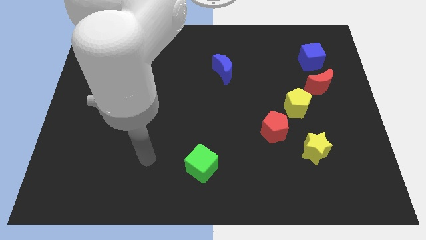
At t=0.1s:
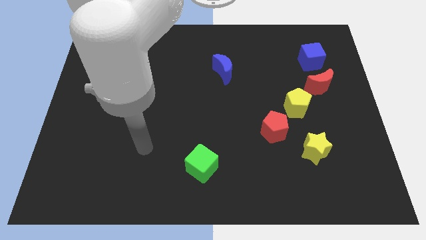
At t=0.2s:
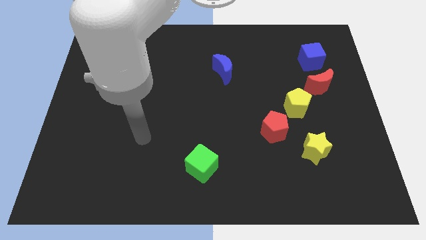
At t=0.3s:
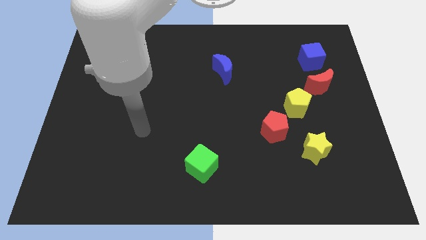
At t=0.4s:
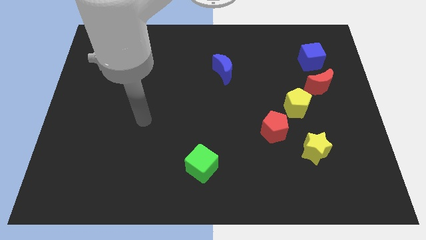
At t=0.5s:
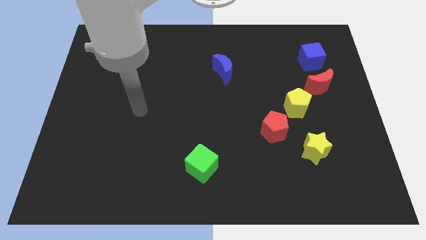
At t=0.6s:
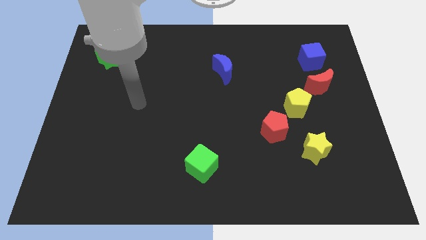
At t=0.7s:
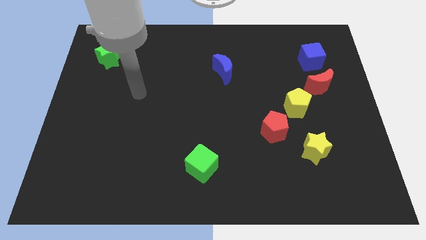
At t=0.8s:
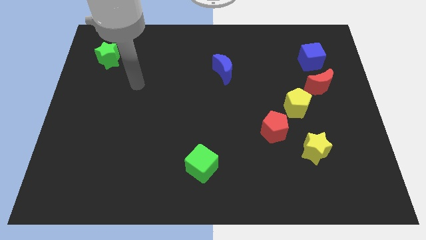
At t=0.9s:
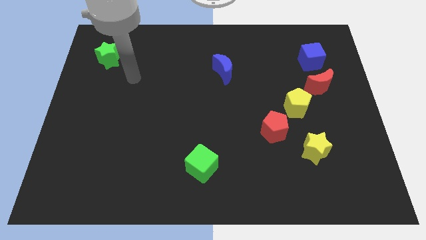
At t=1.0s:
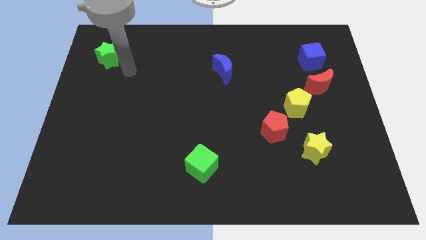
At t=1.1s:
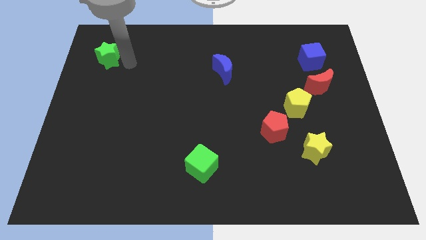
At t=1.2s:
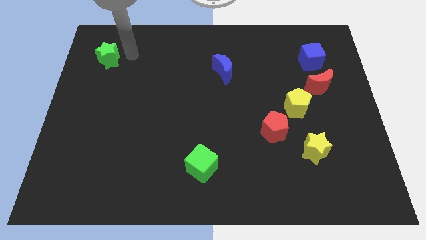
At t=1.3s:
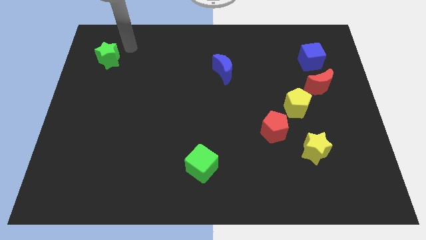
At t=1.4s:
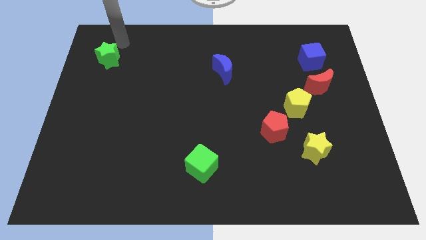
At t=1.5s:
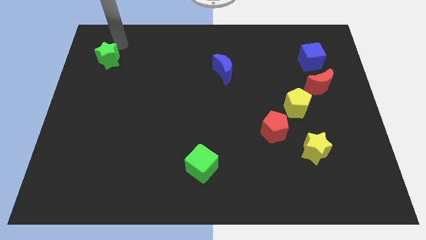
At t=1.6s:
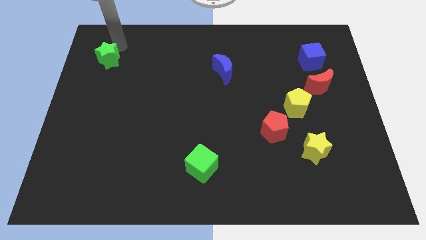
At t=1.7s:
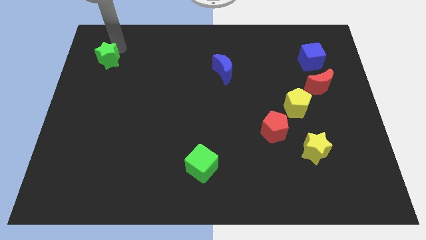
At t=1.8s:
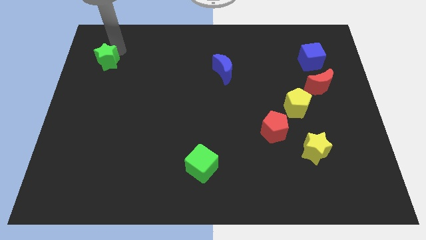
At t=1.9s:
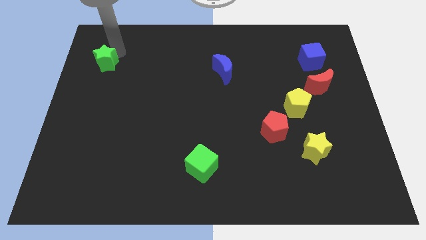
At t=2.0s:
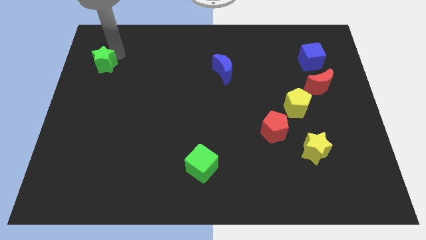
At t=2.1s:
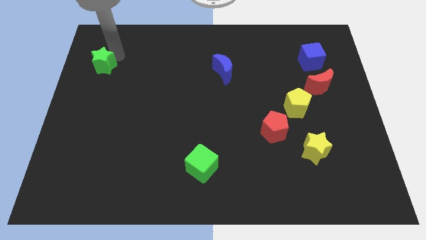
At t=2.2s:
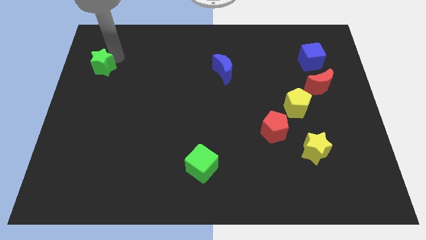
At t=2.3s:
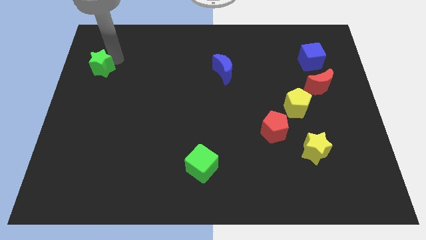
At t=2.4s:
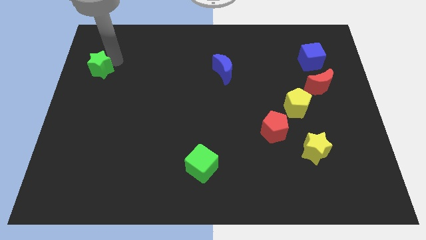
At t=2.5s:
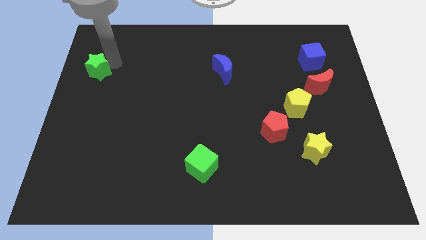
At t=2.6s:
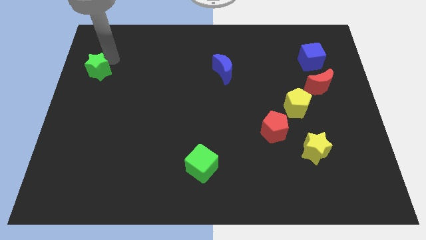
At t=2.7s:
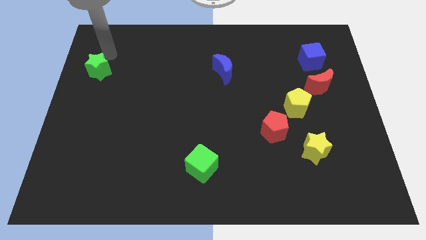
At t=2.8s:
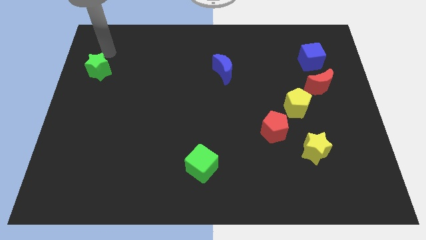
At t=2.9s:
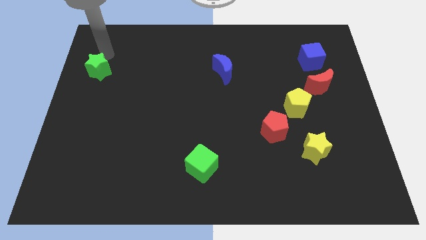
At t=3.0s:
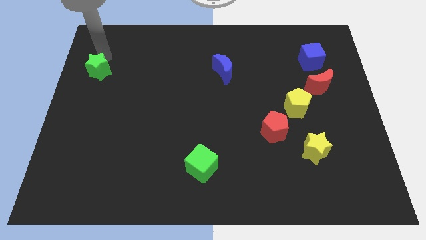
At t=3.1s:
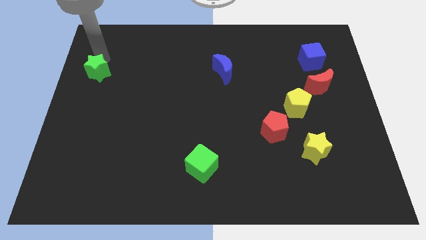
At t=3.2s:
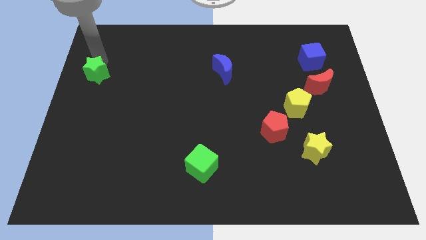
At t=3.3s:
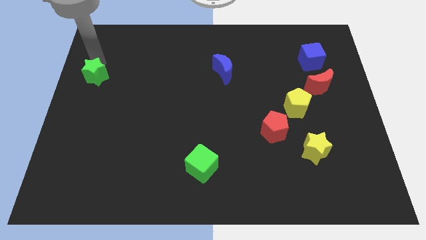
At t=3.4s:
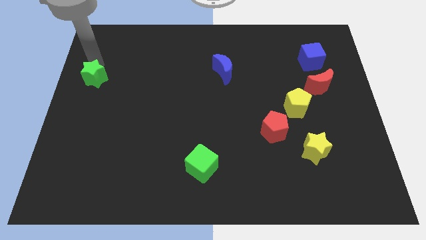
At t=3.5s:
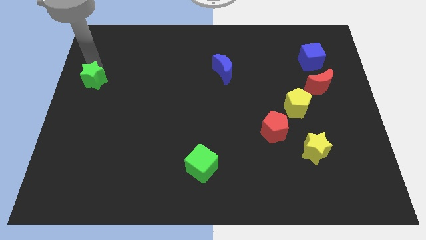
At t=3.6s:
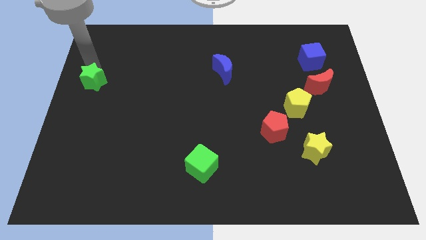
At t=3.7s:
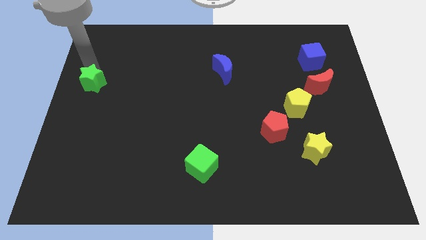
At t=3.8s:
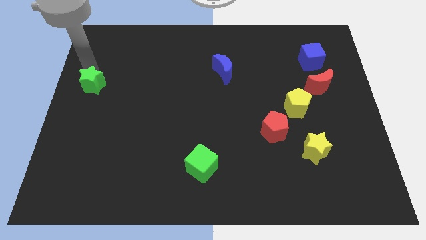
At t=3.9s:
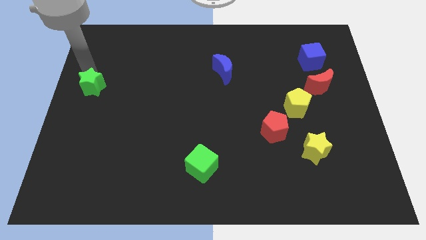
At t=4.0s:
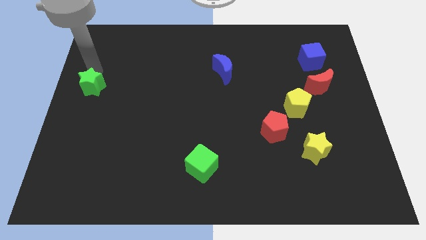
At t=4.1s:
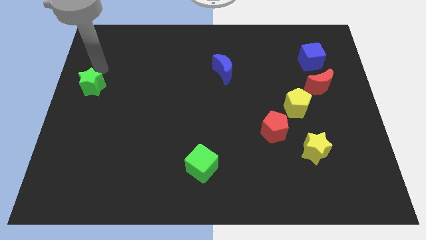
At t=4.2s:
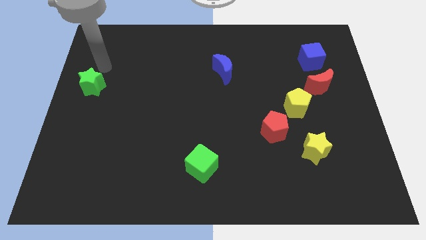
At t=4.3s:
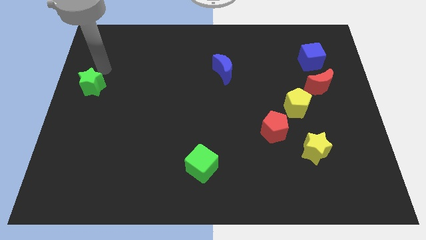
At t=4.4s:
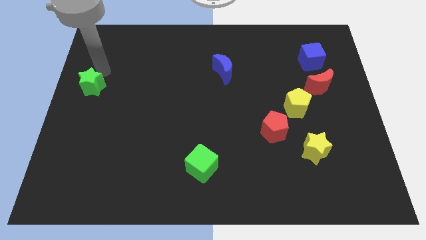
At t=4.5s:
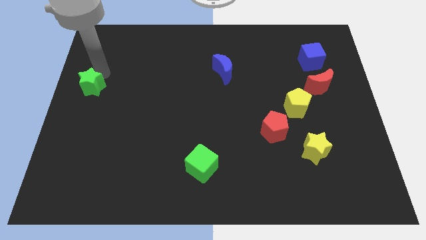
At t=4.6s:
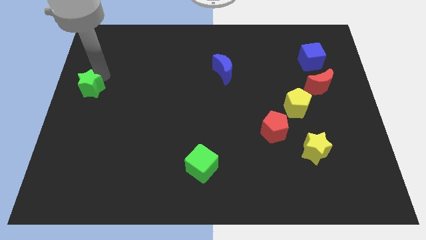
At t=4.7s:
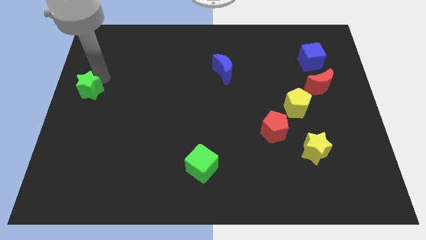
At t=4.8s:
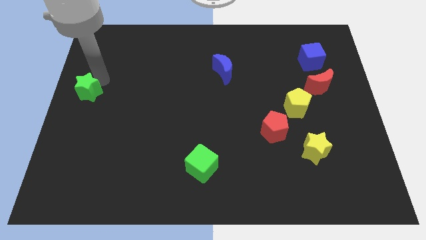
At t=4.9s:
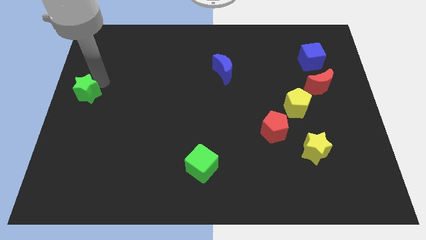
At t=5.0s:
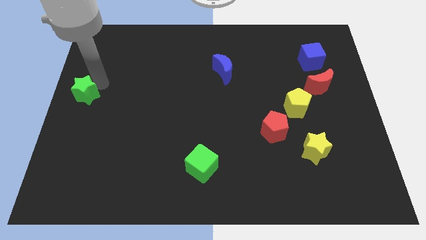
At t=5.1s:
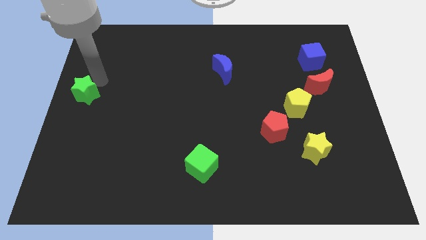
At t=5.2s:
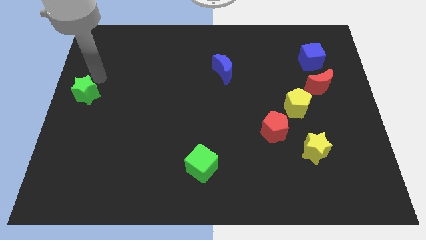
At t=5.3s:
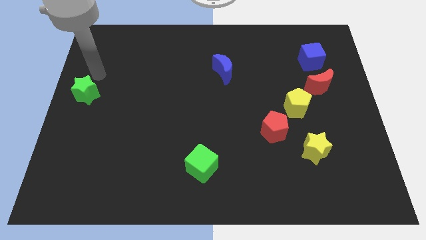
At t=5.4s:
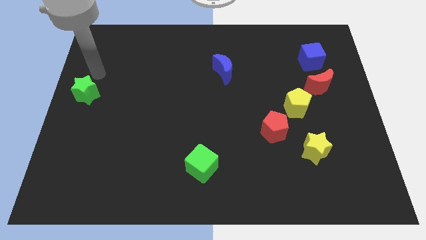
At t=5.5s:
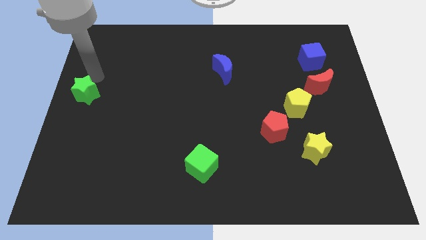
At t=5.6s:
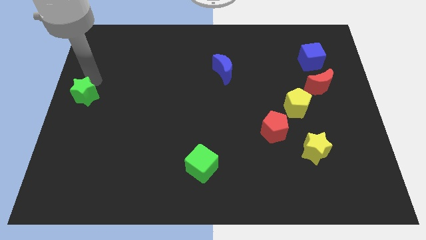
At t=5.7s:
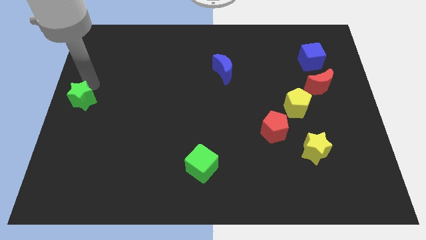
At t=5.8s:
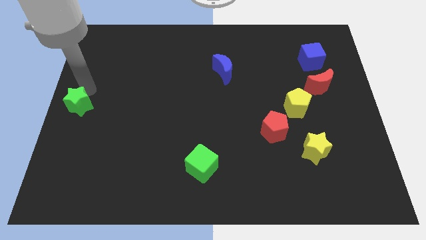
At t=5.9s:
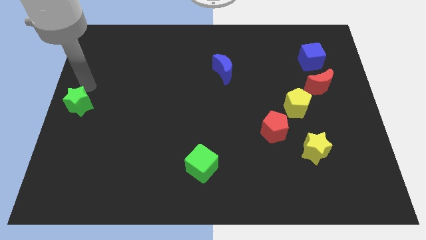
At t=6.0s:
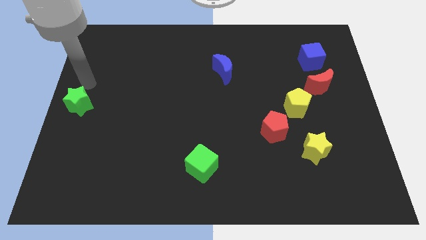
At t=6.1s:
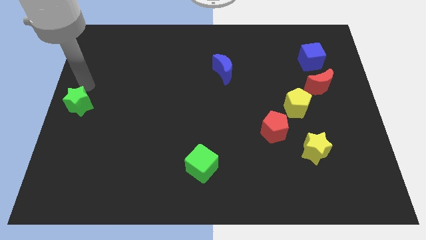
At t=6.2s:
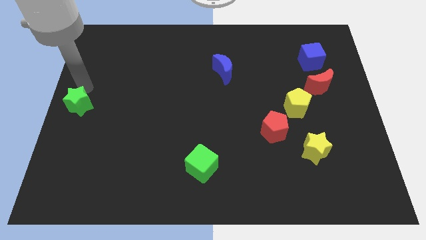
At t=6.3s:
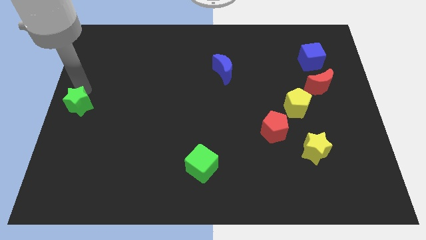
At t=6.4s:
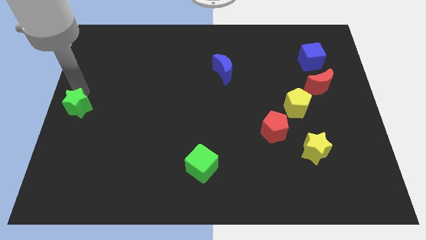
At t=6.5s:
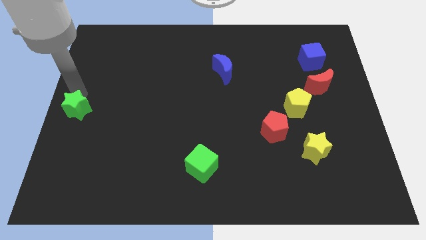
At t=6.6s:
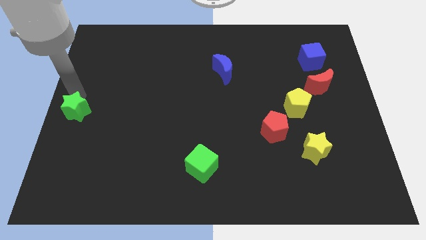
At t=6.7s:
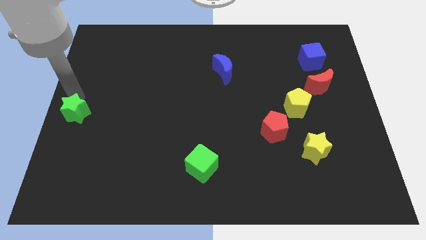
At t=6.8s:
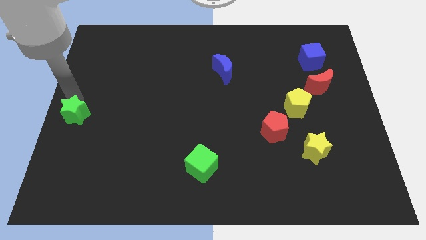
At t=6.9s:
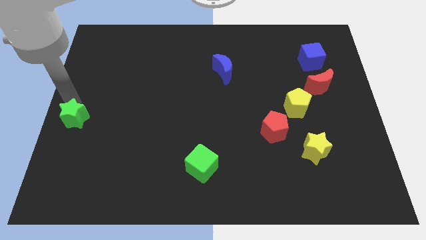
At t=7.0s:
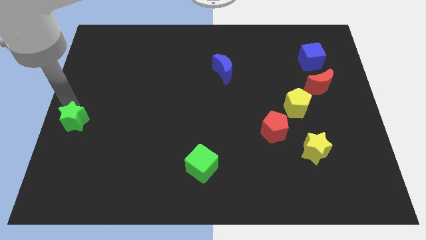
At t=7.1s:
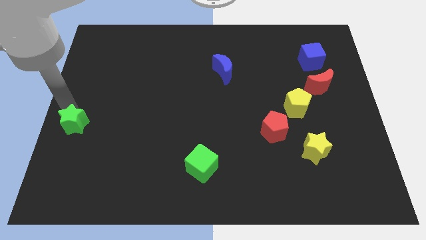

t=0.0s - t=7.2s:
push the green star down

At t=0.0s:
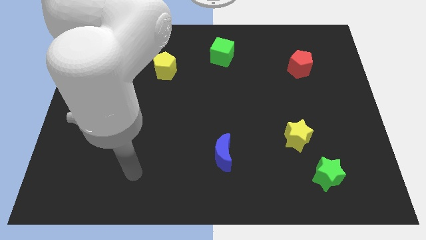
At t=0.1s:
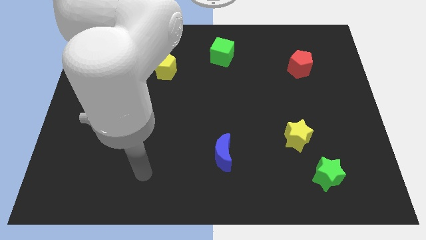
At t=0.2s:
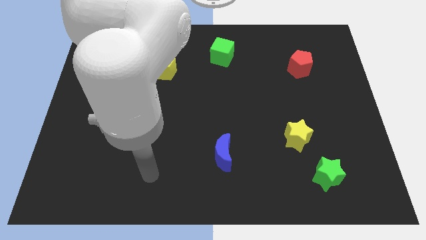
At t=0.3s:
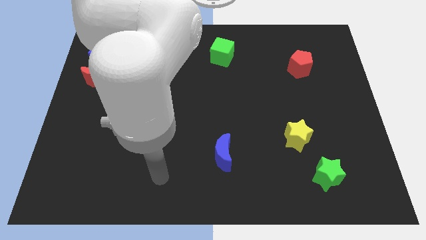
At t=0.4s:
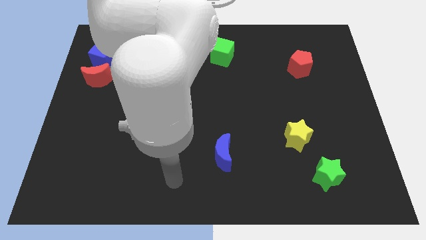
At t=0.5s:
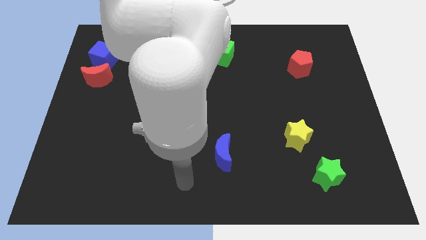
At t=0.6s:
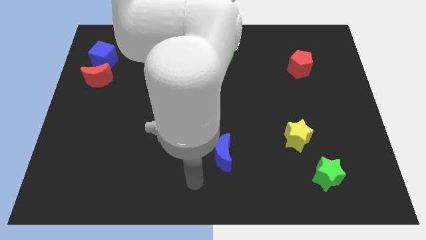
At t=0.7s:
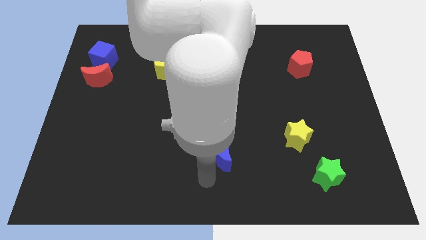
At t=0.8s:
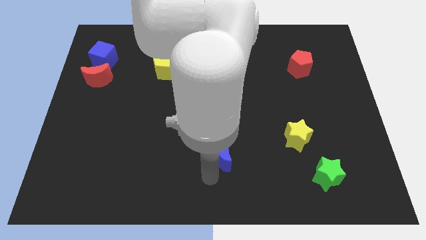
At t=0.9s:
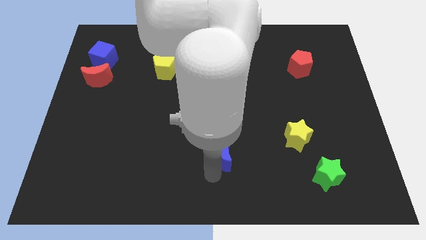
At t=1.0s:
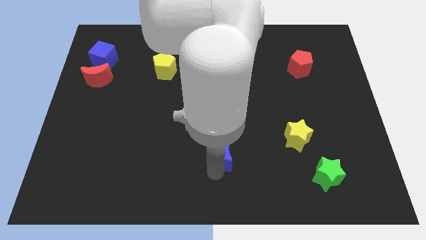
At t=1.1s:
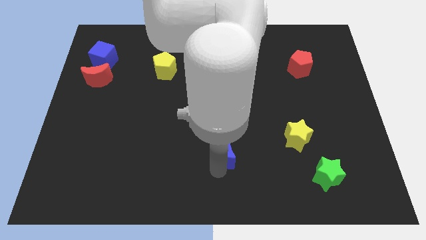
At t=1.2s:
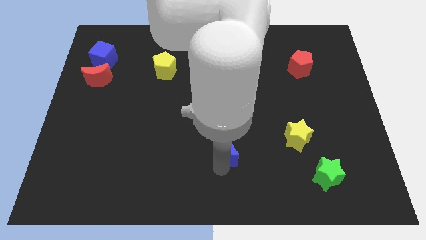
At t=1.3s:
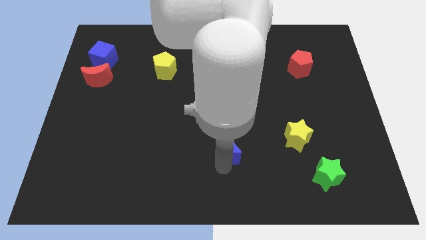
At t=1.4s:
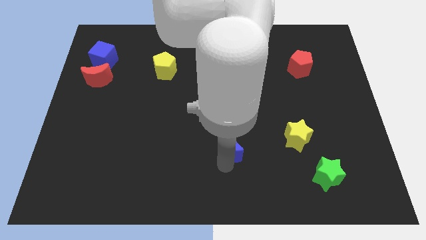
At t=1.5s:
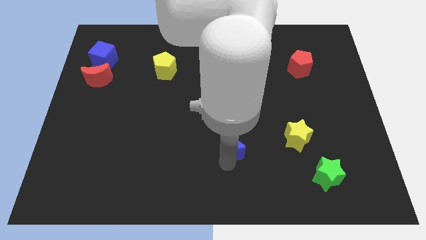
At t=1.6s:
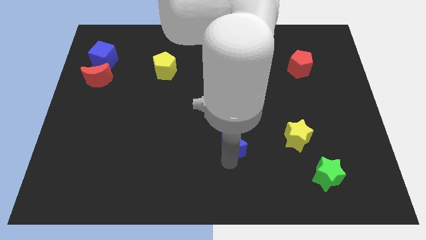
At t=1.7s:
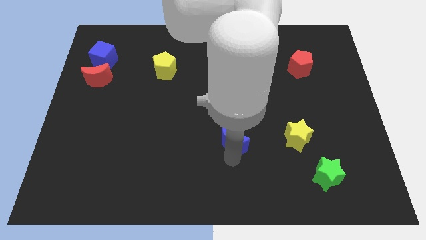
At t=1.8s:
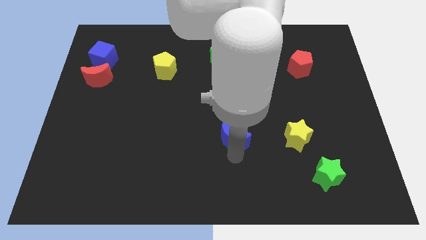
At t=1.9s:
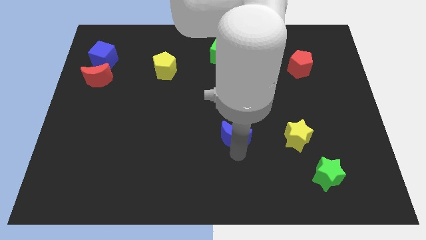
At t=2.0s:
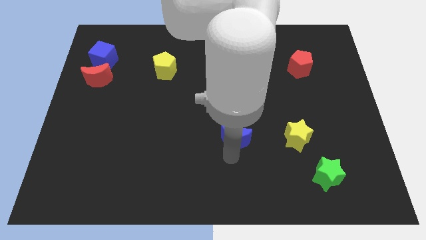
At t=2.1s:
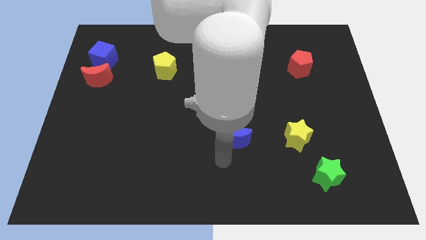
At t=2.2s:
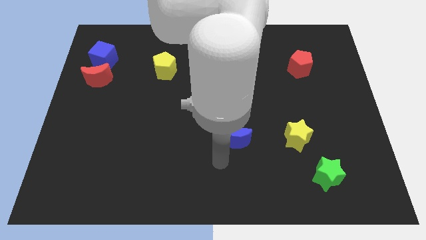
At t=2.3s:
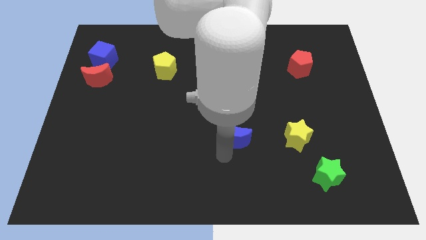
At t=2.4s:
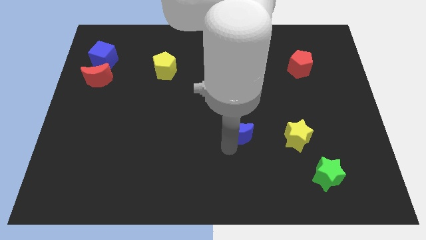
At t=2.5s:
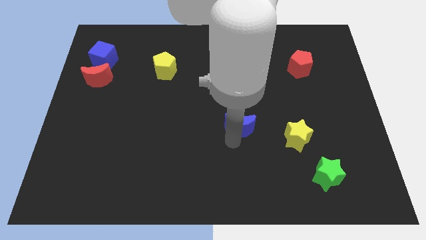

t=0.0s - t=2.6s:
push the blue moon upwards and to the right a bit
